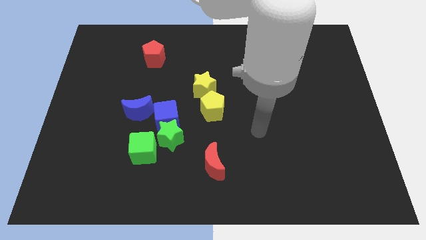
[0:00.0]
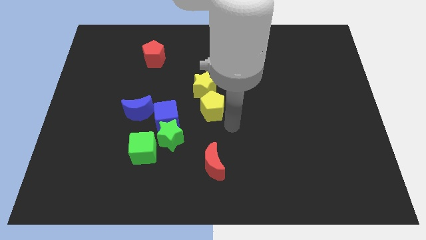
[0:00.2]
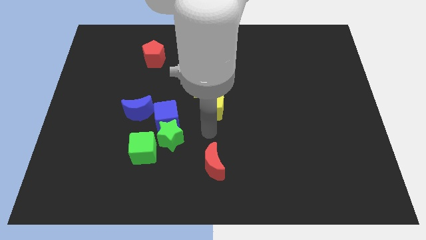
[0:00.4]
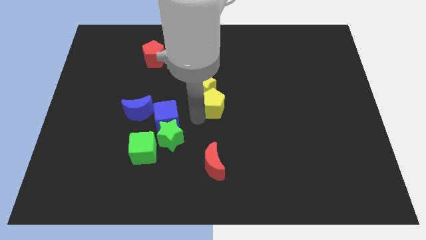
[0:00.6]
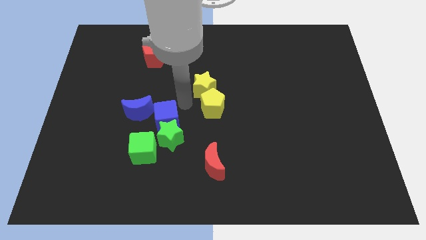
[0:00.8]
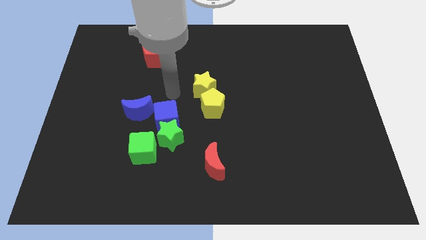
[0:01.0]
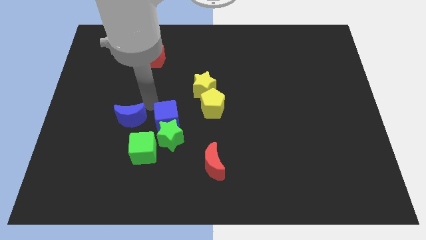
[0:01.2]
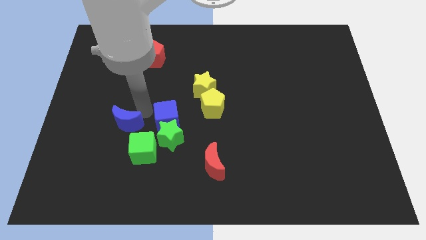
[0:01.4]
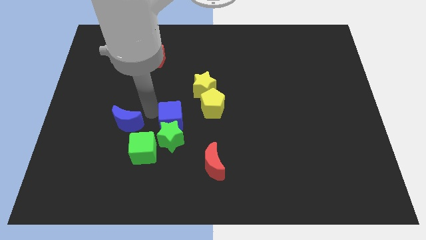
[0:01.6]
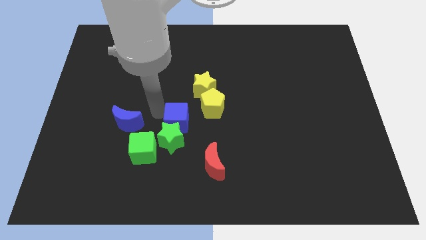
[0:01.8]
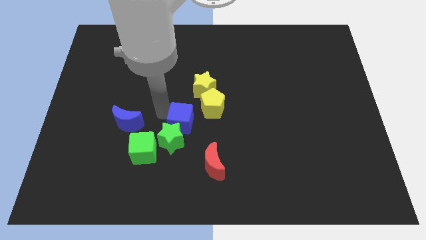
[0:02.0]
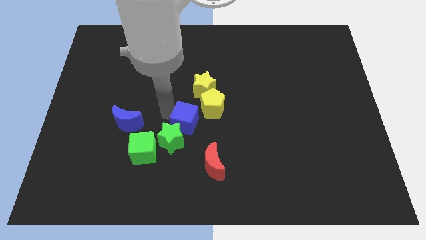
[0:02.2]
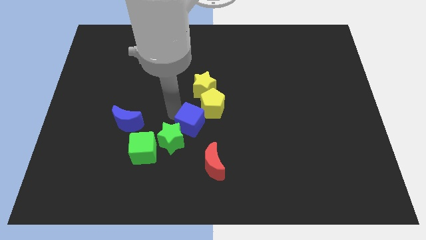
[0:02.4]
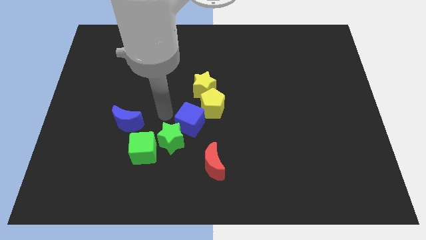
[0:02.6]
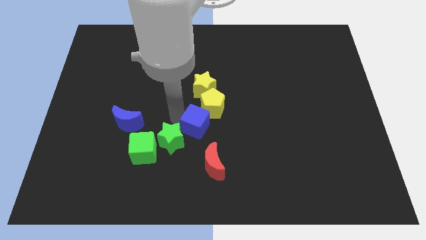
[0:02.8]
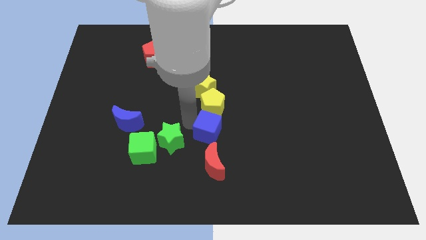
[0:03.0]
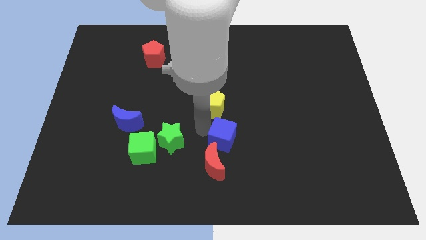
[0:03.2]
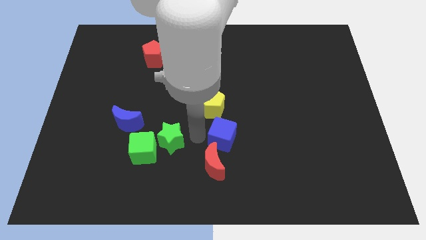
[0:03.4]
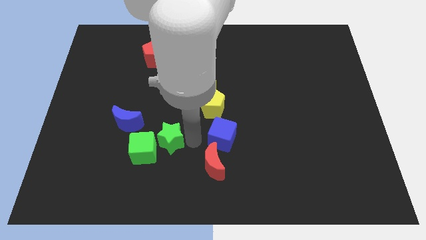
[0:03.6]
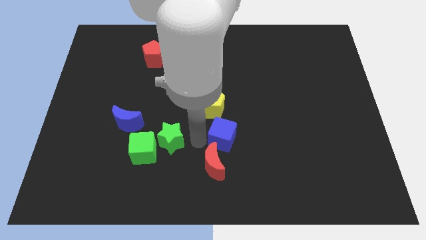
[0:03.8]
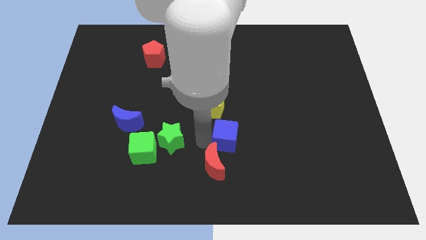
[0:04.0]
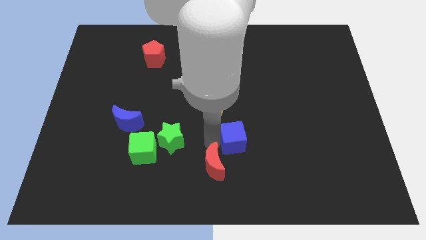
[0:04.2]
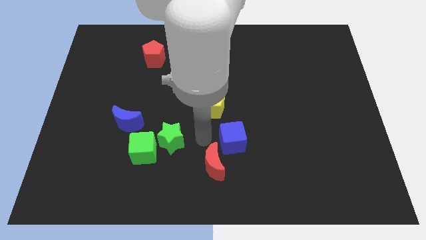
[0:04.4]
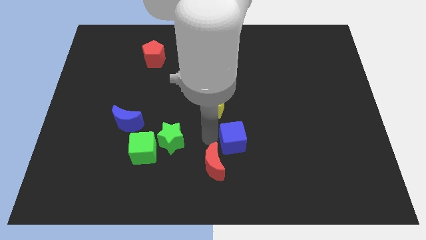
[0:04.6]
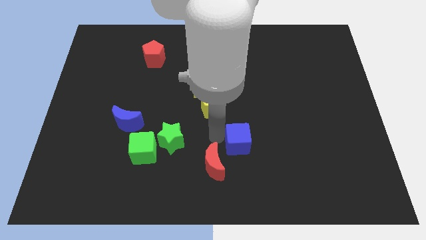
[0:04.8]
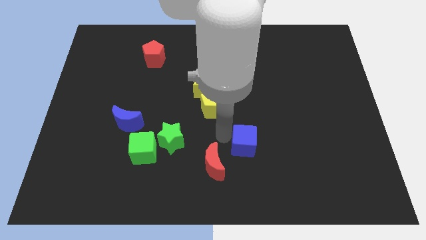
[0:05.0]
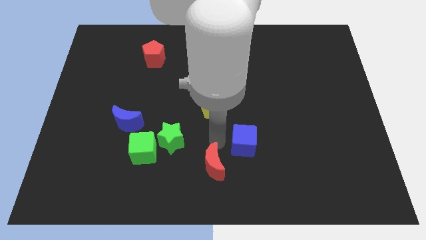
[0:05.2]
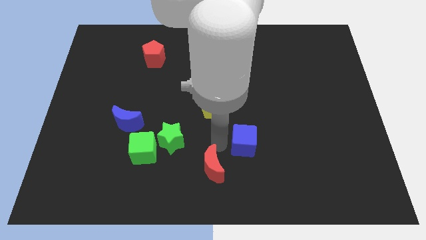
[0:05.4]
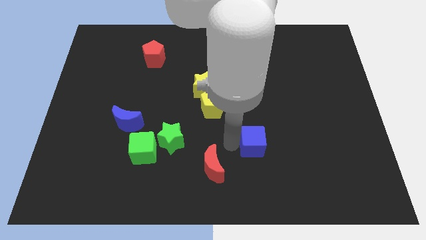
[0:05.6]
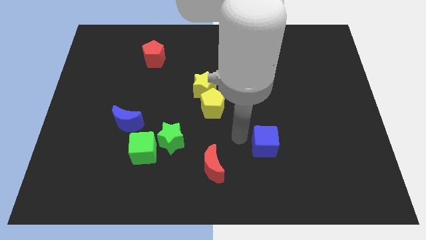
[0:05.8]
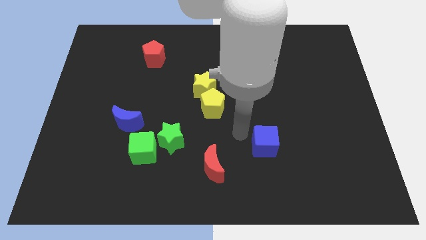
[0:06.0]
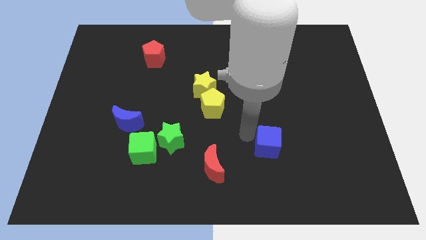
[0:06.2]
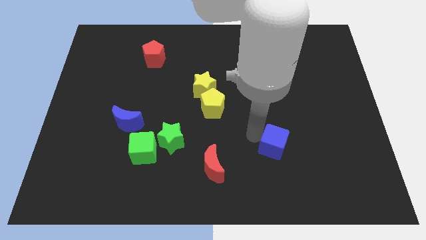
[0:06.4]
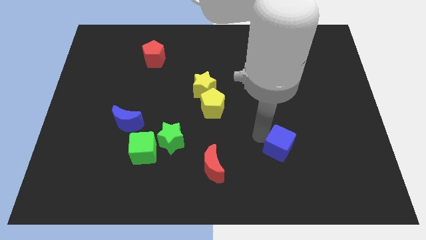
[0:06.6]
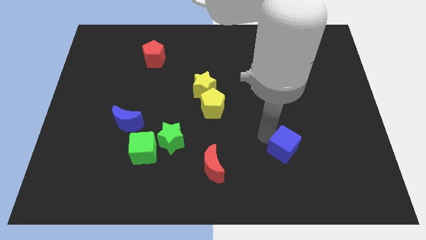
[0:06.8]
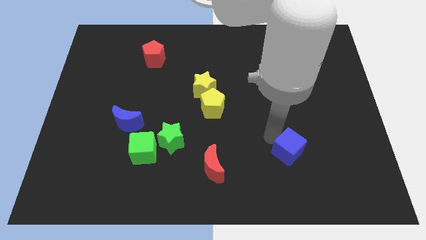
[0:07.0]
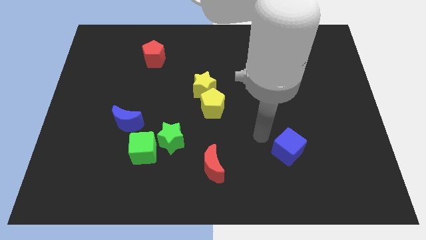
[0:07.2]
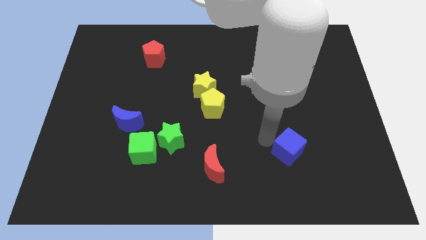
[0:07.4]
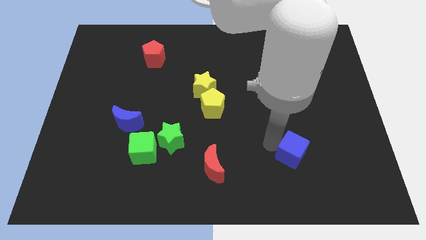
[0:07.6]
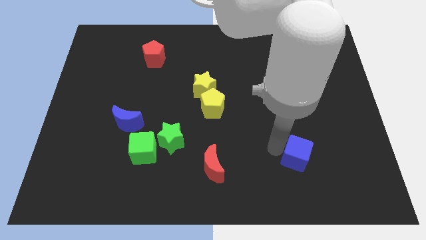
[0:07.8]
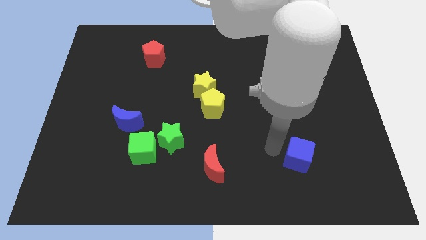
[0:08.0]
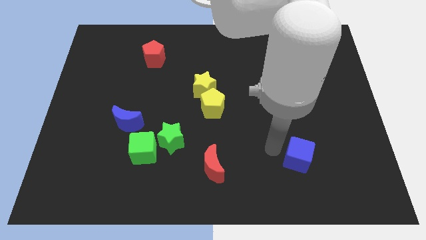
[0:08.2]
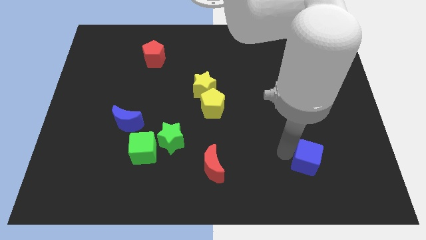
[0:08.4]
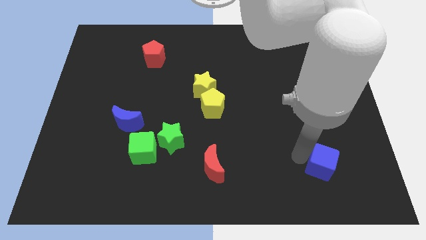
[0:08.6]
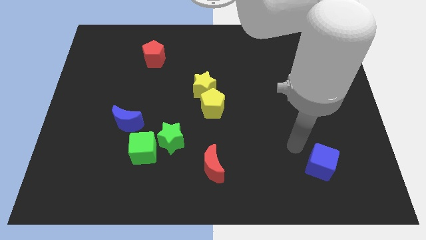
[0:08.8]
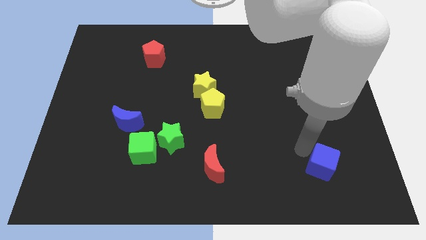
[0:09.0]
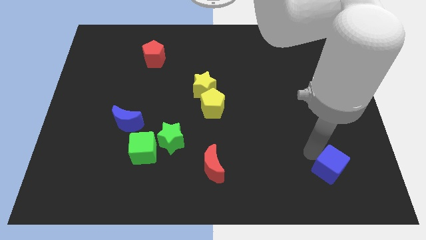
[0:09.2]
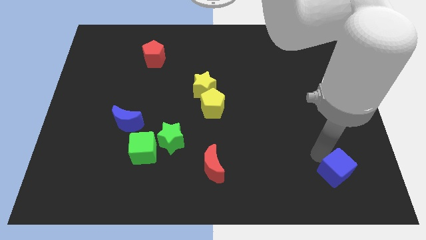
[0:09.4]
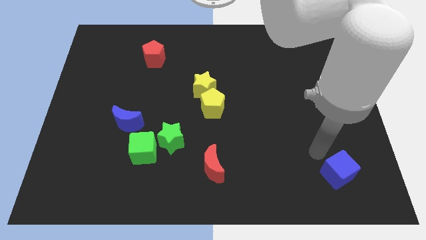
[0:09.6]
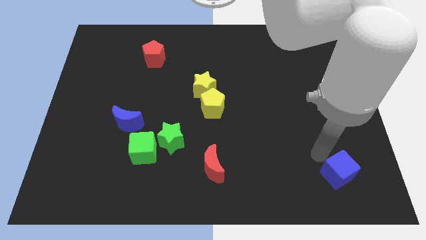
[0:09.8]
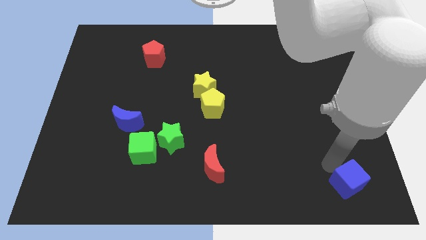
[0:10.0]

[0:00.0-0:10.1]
move the blue cube to the bottom right of the board

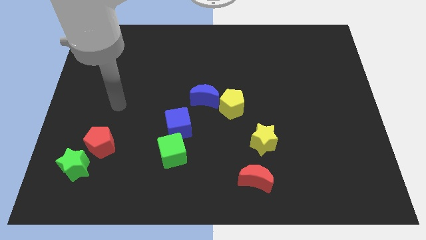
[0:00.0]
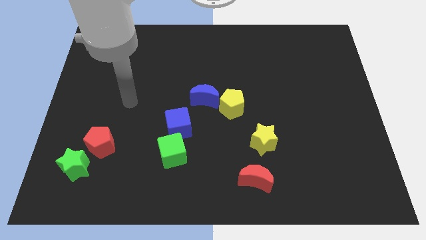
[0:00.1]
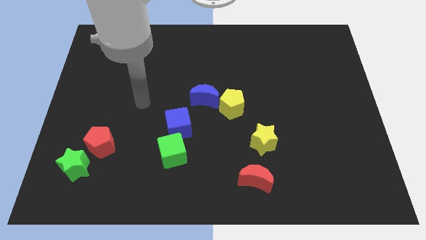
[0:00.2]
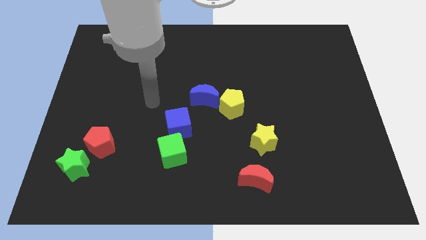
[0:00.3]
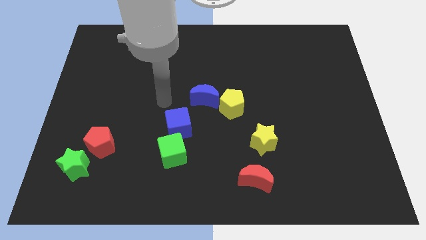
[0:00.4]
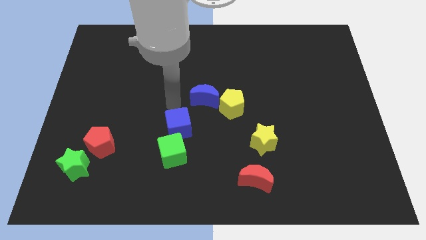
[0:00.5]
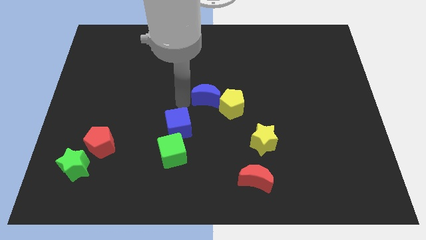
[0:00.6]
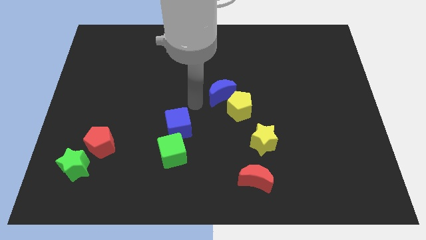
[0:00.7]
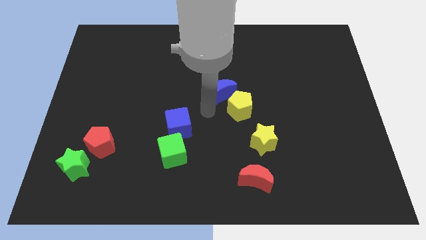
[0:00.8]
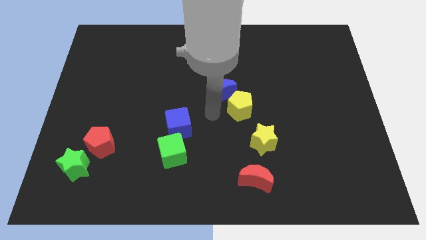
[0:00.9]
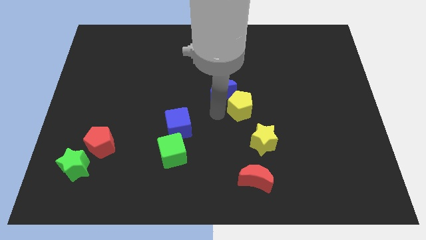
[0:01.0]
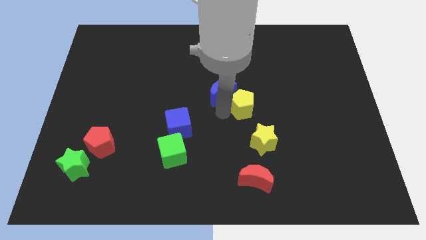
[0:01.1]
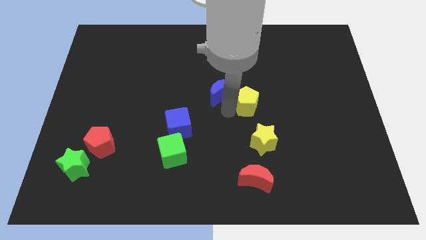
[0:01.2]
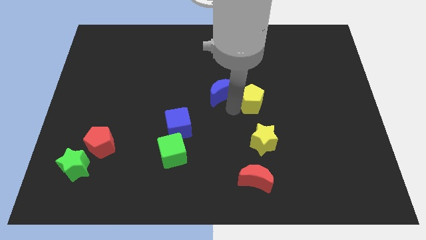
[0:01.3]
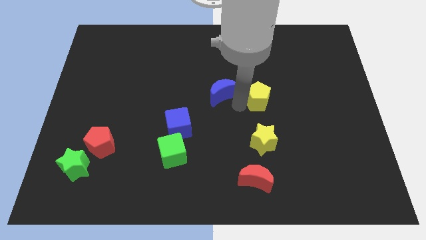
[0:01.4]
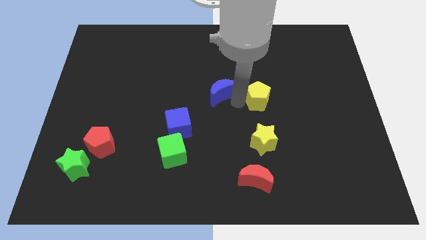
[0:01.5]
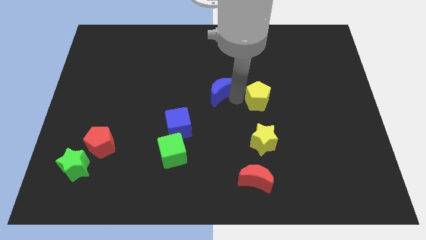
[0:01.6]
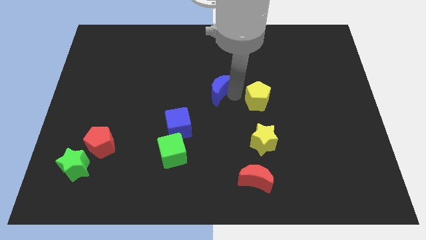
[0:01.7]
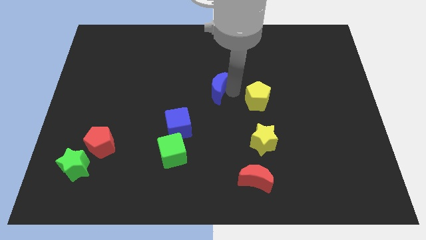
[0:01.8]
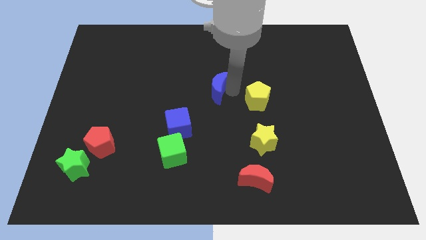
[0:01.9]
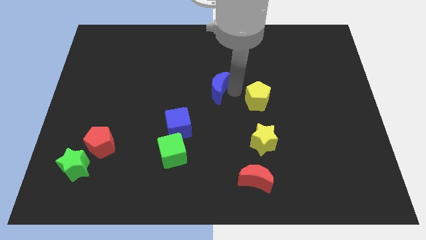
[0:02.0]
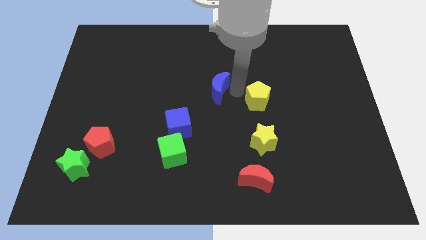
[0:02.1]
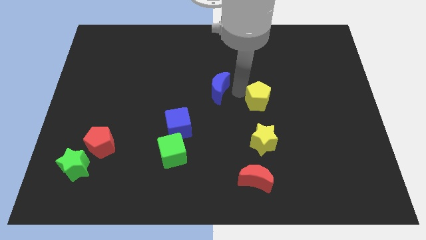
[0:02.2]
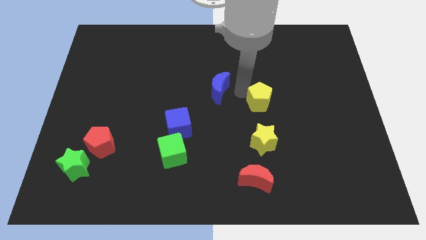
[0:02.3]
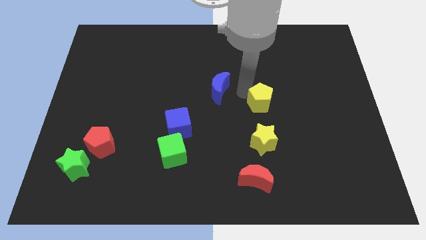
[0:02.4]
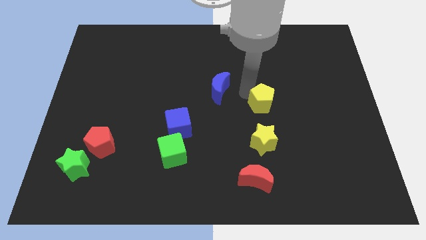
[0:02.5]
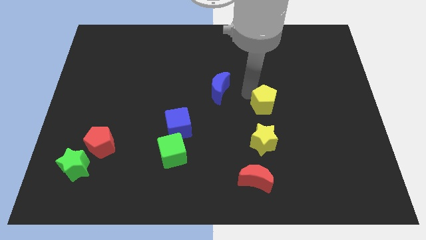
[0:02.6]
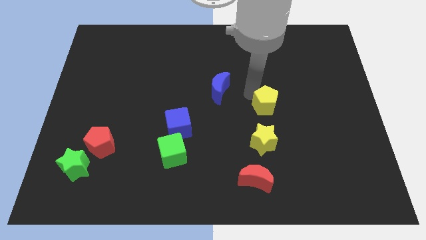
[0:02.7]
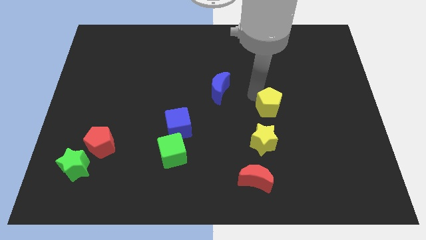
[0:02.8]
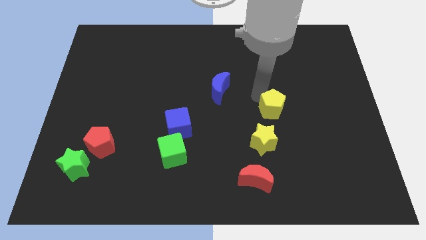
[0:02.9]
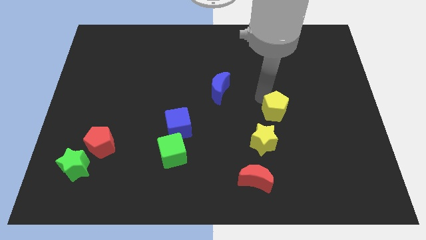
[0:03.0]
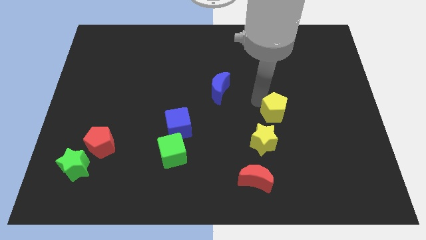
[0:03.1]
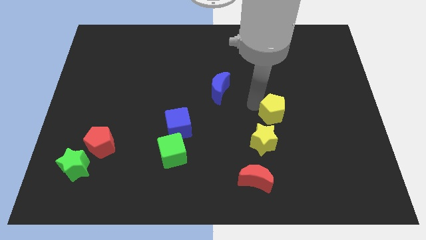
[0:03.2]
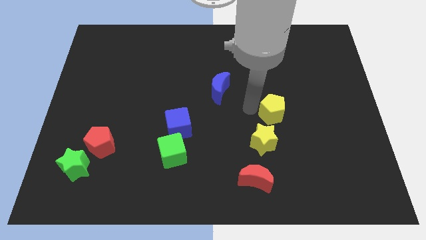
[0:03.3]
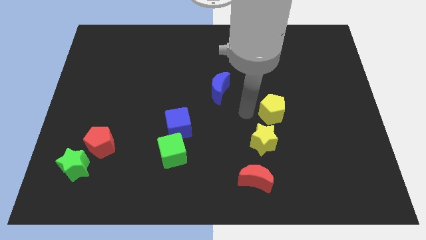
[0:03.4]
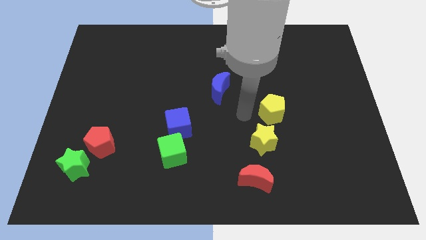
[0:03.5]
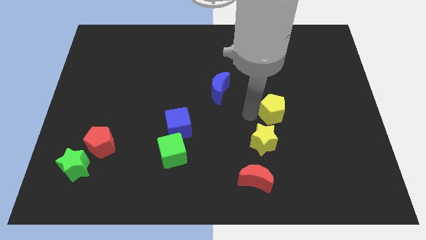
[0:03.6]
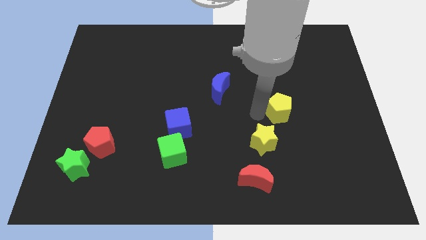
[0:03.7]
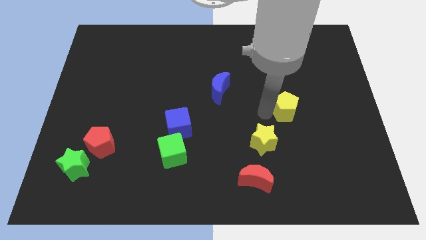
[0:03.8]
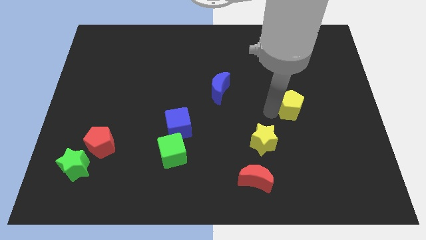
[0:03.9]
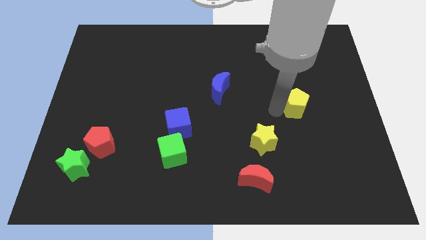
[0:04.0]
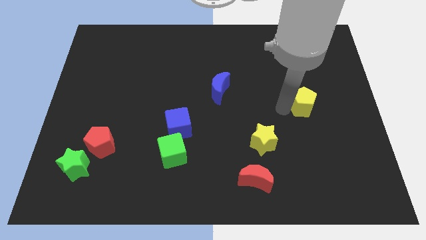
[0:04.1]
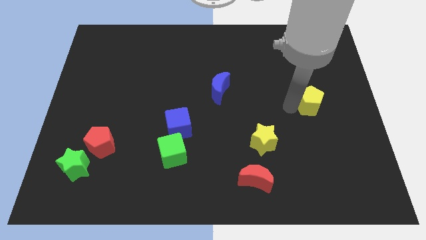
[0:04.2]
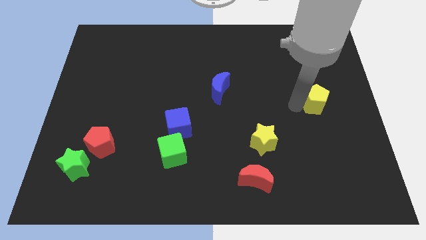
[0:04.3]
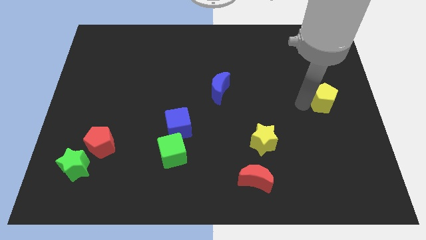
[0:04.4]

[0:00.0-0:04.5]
put the yellow pentagon to the right side
